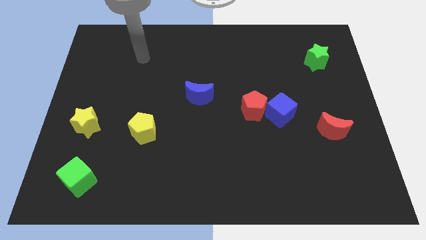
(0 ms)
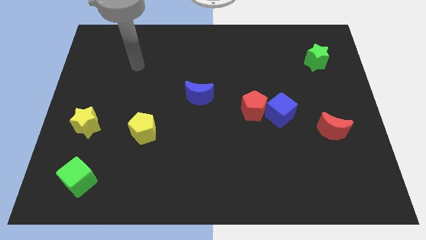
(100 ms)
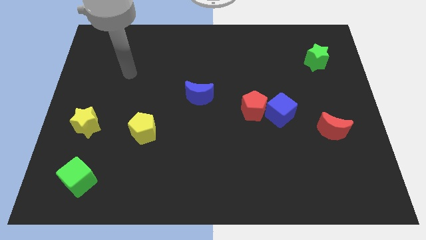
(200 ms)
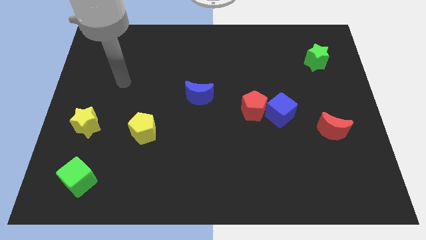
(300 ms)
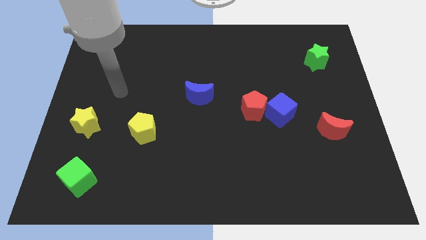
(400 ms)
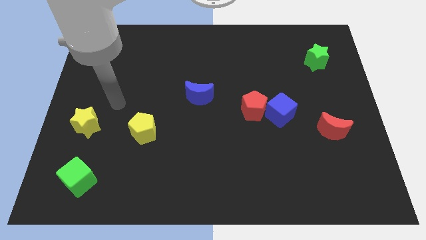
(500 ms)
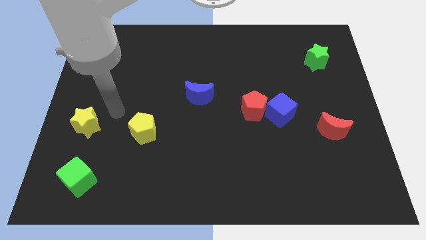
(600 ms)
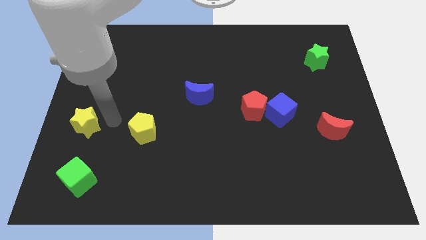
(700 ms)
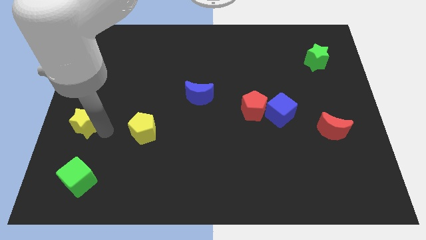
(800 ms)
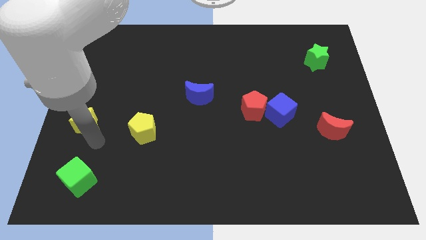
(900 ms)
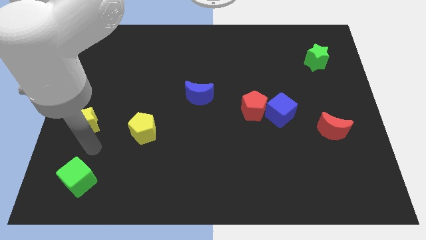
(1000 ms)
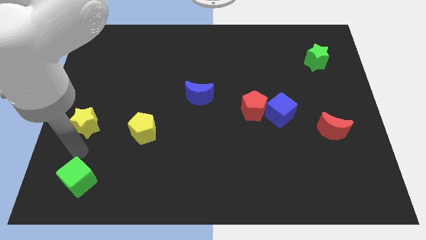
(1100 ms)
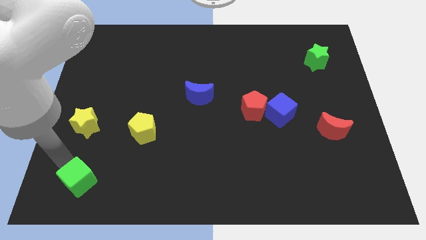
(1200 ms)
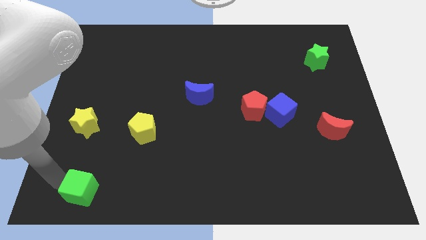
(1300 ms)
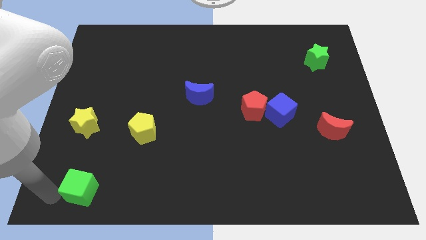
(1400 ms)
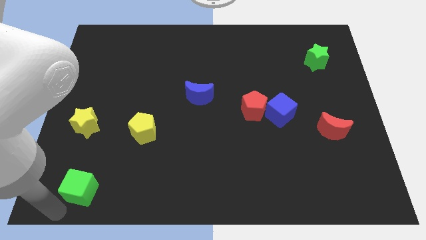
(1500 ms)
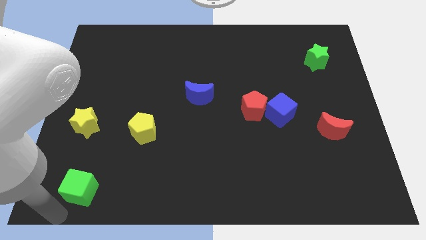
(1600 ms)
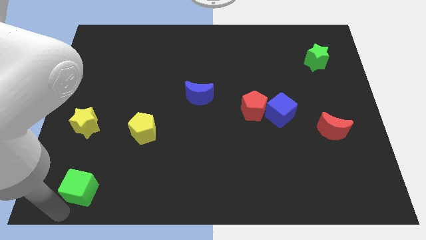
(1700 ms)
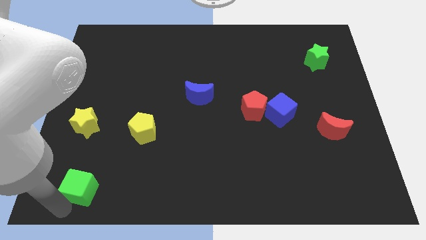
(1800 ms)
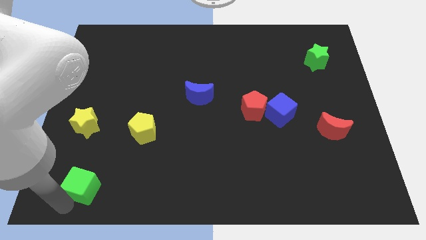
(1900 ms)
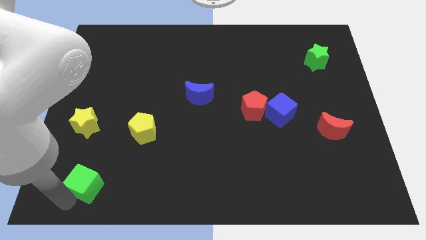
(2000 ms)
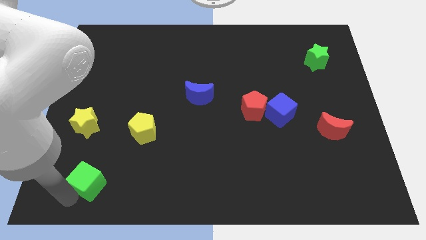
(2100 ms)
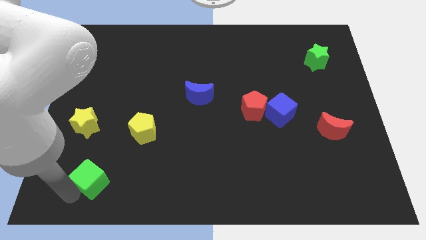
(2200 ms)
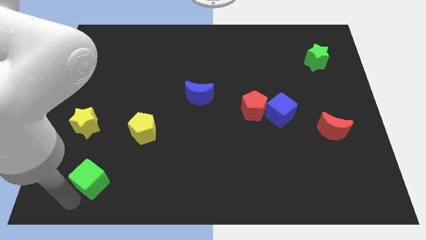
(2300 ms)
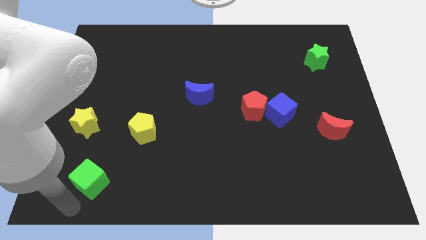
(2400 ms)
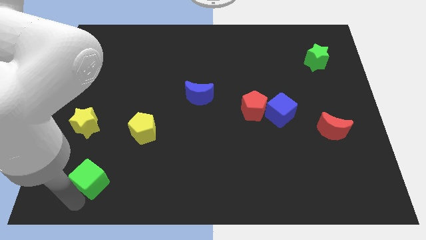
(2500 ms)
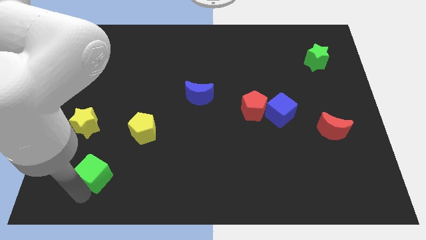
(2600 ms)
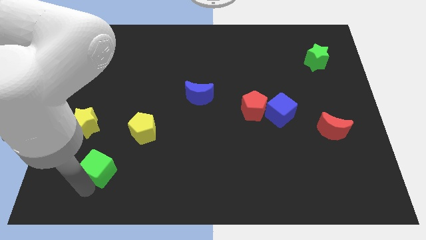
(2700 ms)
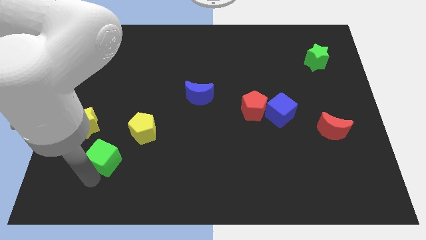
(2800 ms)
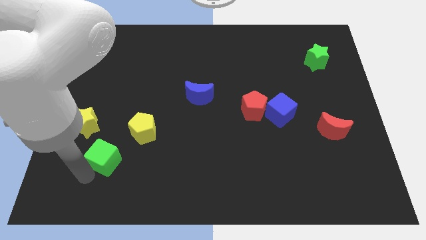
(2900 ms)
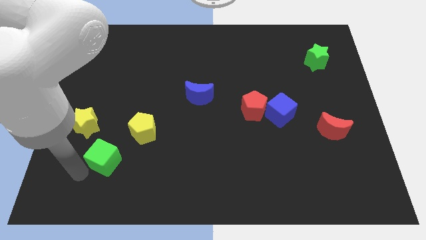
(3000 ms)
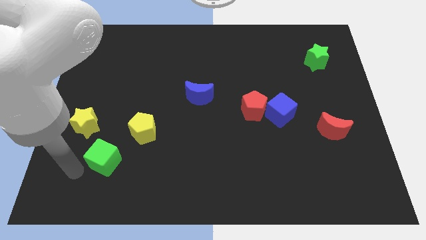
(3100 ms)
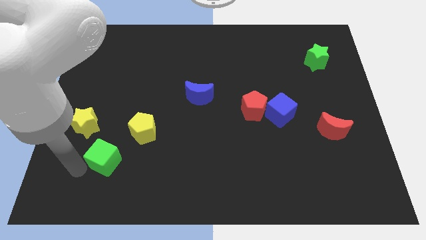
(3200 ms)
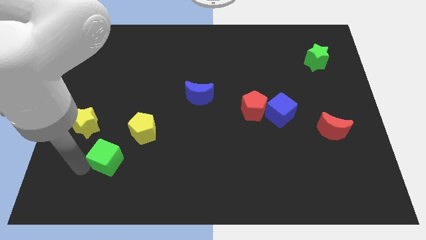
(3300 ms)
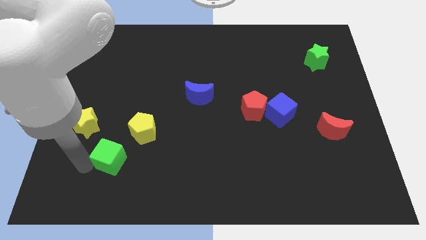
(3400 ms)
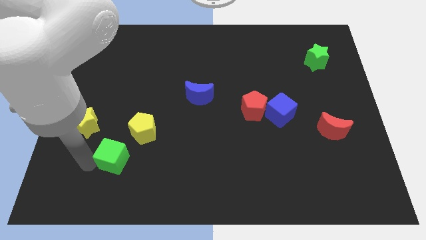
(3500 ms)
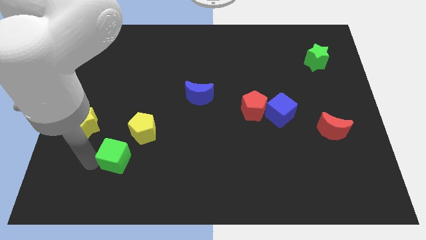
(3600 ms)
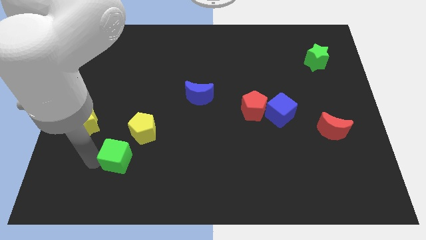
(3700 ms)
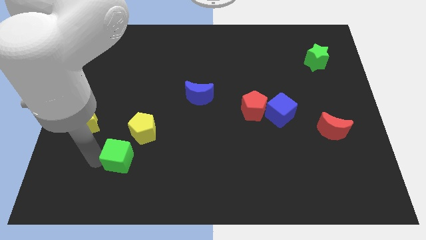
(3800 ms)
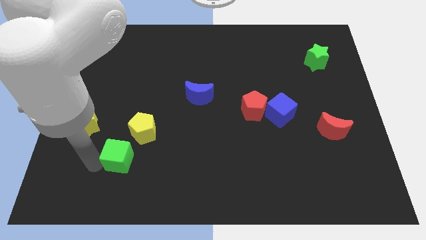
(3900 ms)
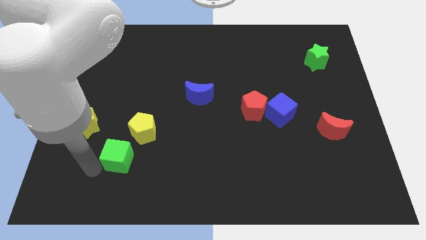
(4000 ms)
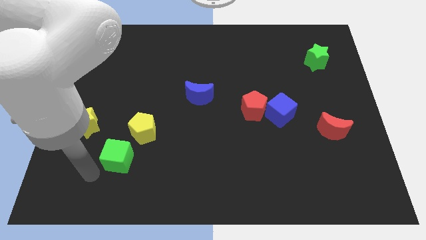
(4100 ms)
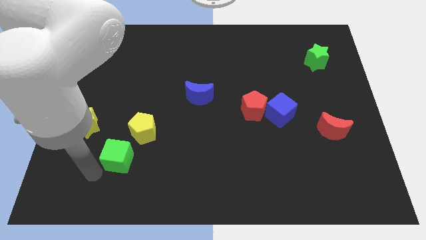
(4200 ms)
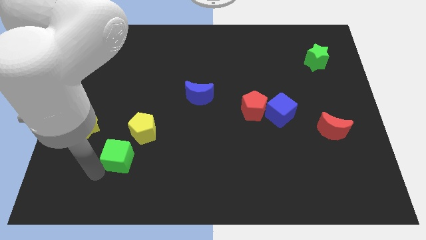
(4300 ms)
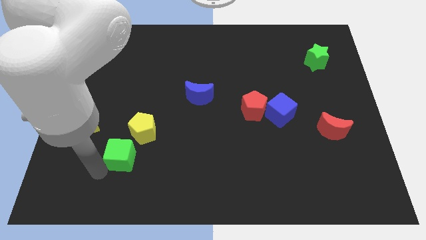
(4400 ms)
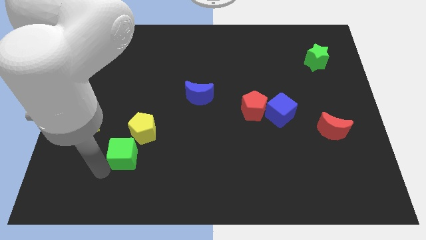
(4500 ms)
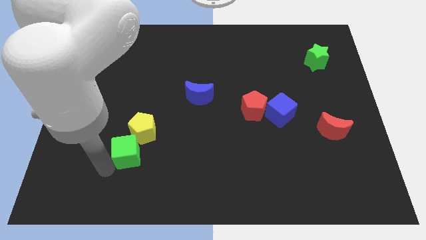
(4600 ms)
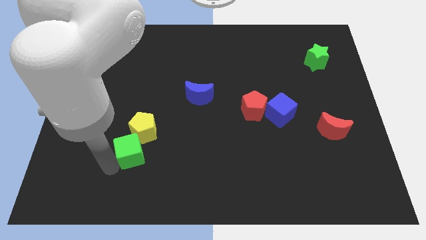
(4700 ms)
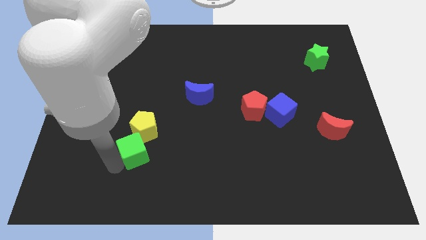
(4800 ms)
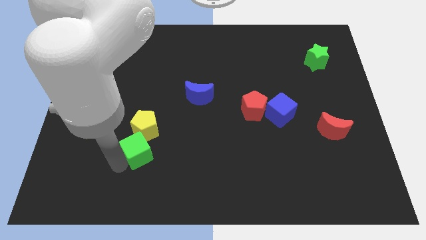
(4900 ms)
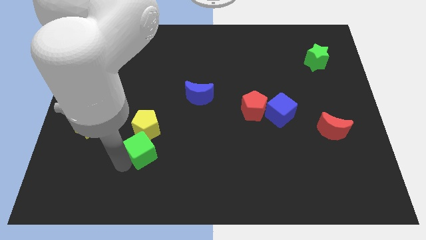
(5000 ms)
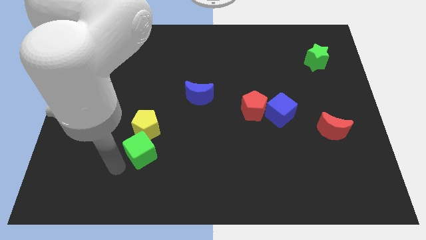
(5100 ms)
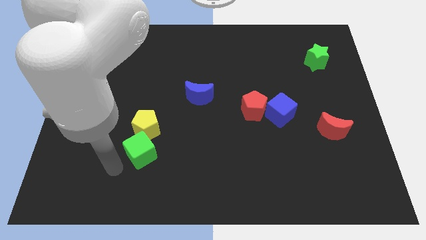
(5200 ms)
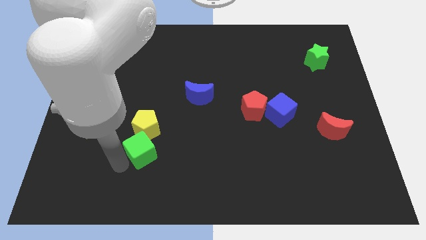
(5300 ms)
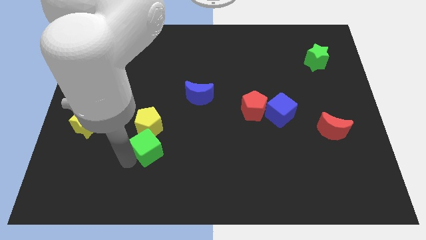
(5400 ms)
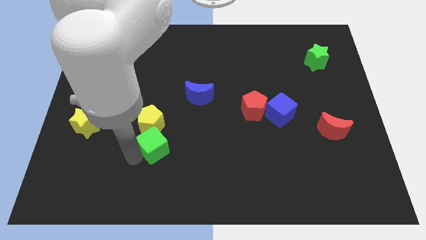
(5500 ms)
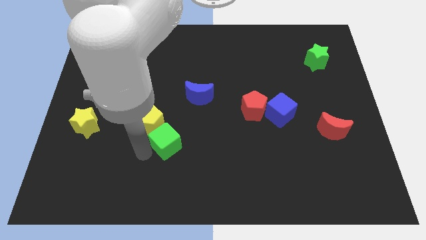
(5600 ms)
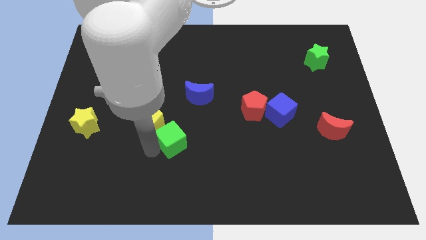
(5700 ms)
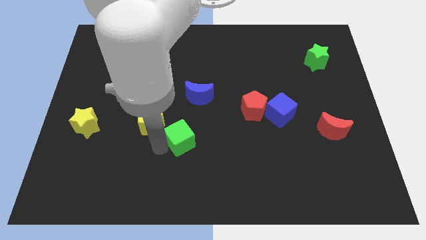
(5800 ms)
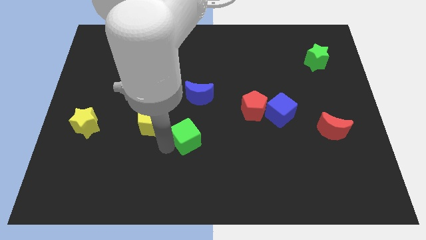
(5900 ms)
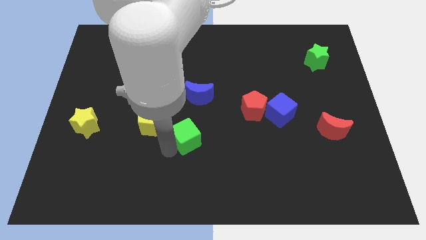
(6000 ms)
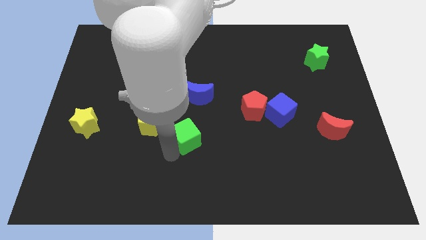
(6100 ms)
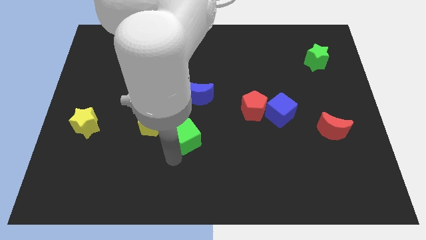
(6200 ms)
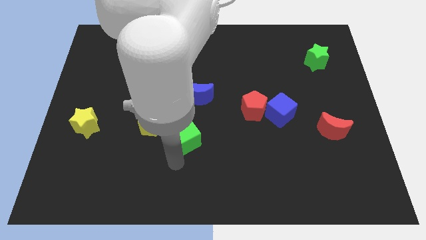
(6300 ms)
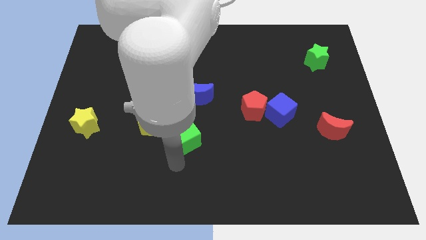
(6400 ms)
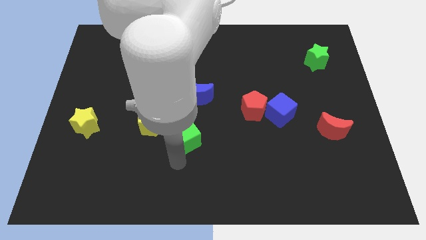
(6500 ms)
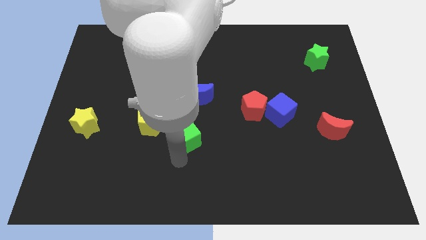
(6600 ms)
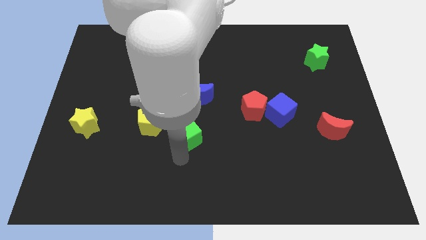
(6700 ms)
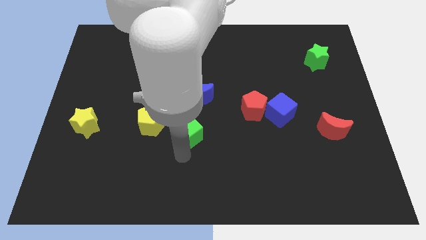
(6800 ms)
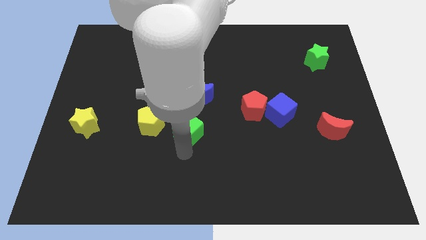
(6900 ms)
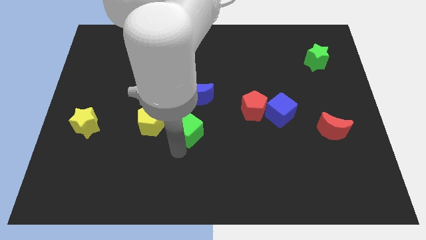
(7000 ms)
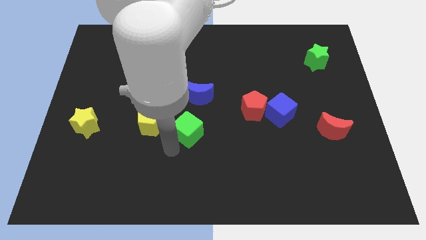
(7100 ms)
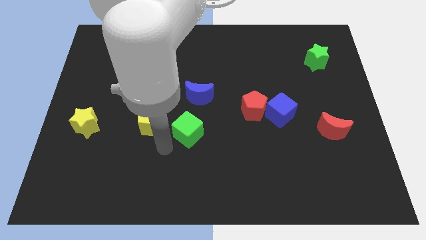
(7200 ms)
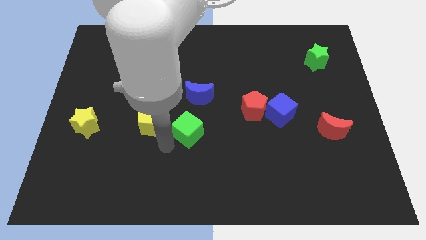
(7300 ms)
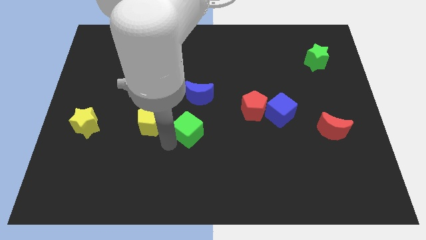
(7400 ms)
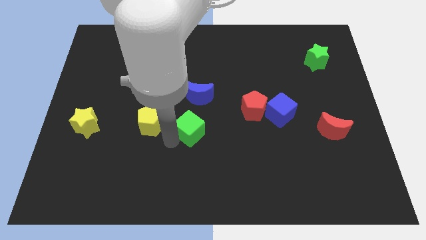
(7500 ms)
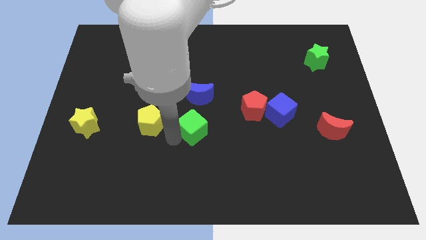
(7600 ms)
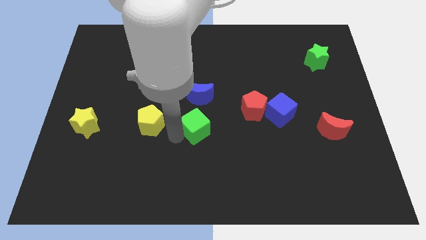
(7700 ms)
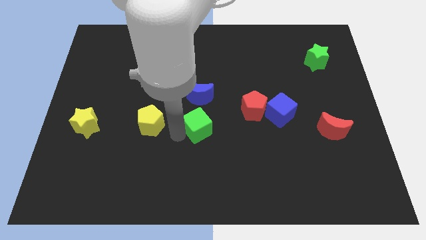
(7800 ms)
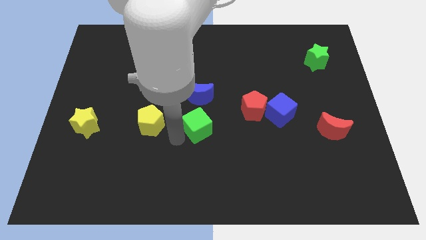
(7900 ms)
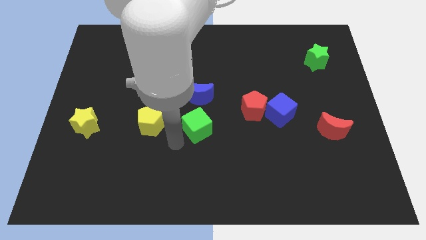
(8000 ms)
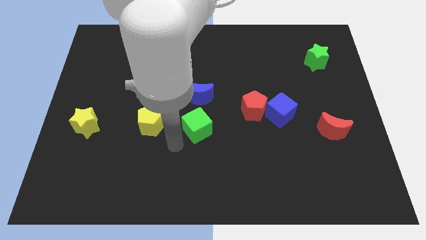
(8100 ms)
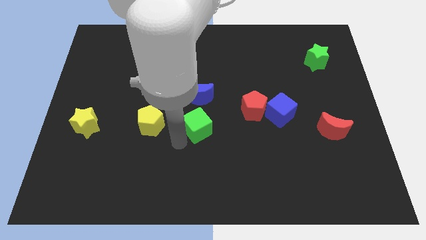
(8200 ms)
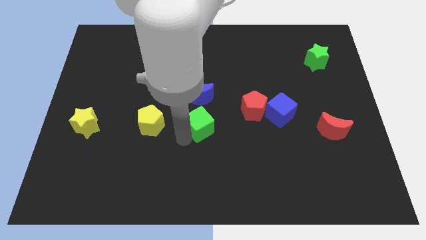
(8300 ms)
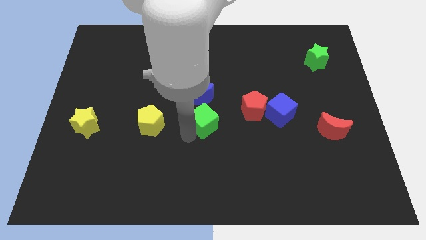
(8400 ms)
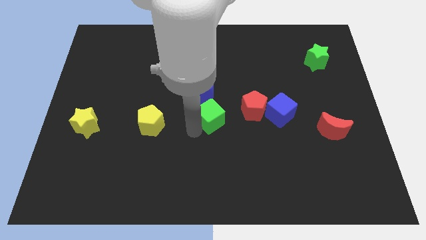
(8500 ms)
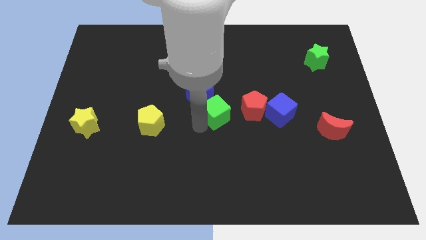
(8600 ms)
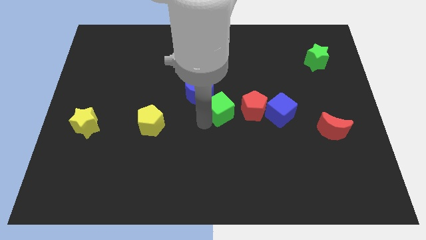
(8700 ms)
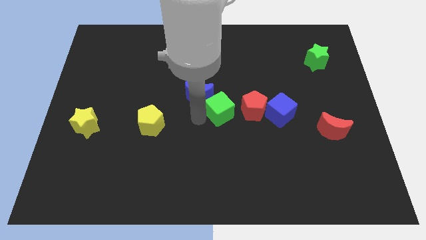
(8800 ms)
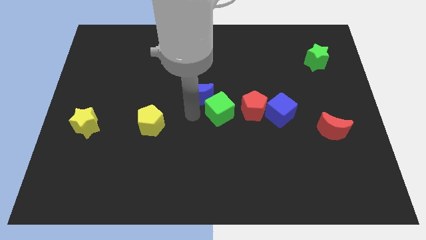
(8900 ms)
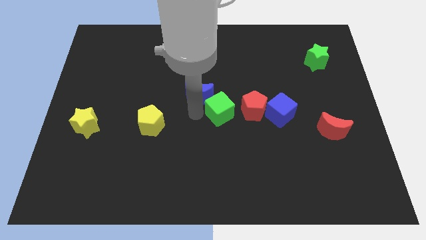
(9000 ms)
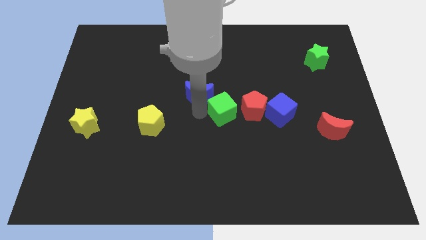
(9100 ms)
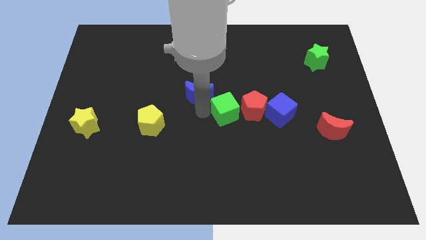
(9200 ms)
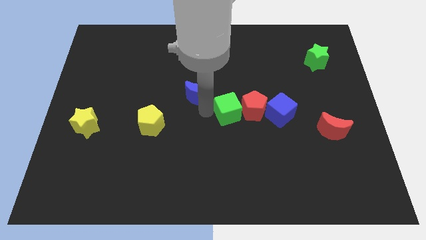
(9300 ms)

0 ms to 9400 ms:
put the green cube to the red pentagon
